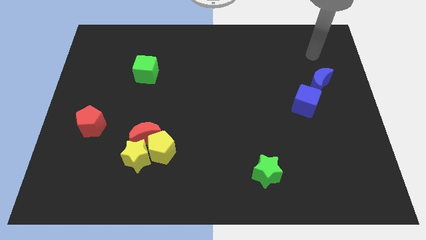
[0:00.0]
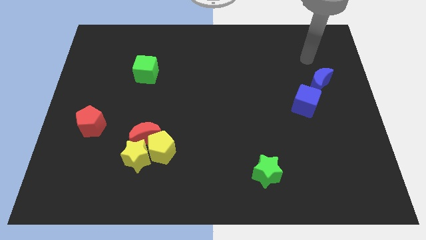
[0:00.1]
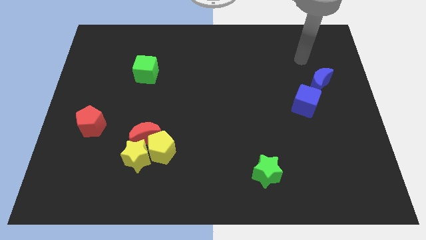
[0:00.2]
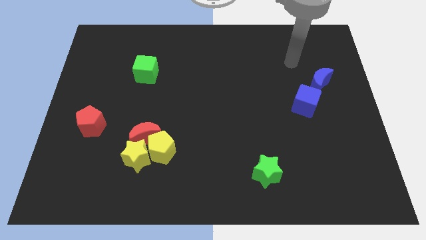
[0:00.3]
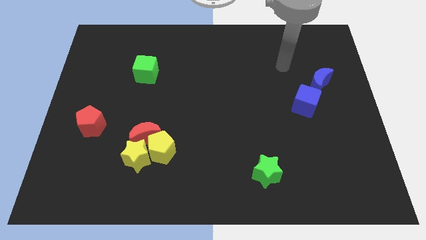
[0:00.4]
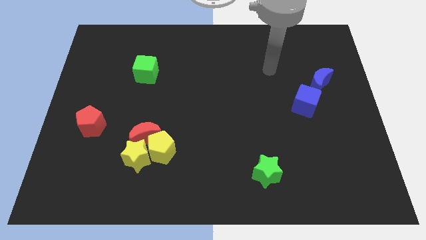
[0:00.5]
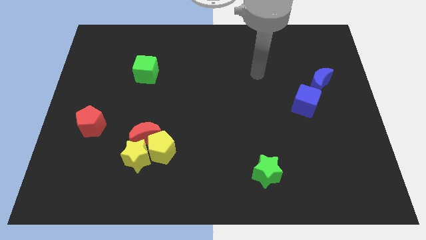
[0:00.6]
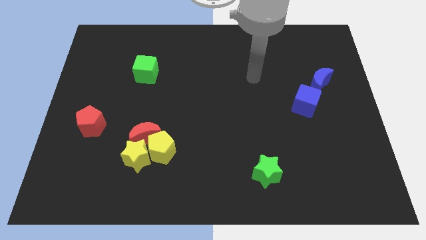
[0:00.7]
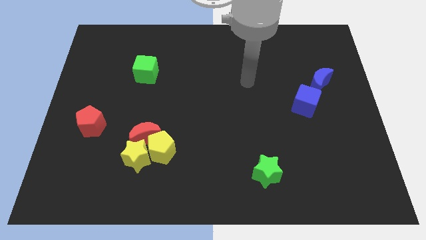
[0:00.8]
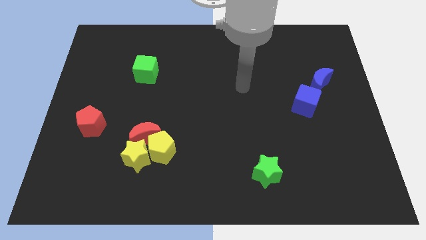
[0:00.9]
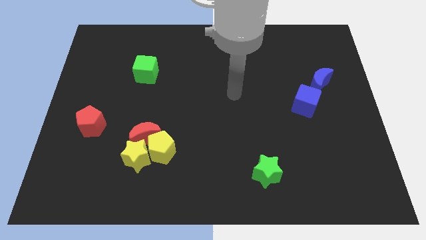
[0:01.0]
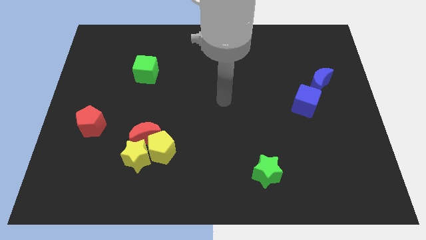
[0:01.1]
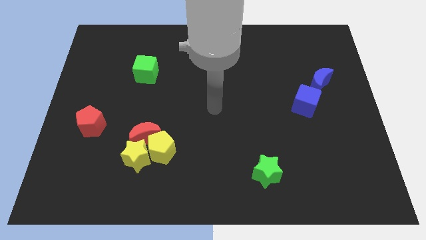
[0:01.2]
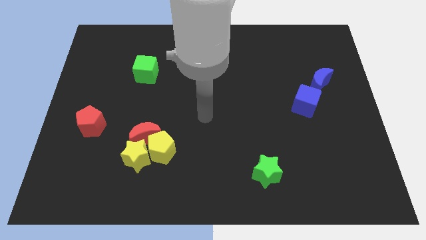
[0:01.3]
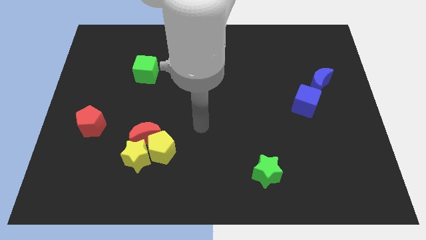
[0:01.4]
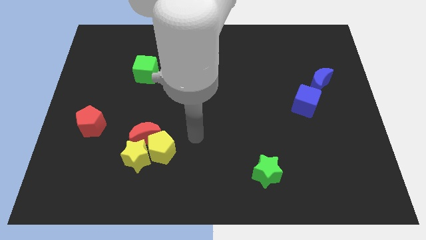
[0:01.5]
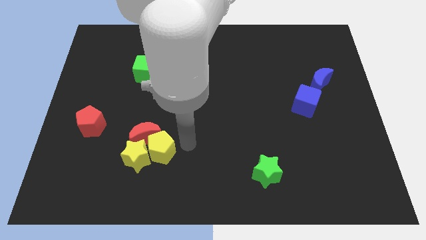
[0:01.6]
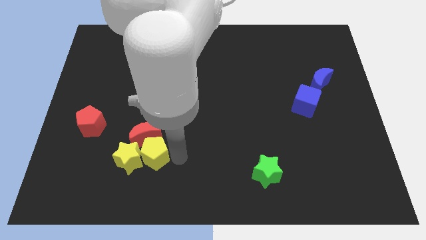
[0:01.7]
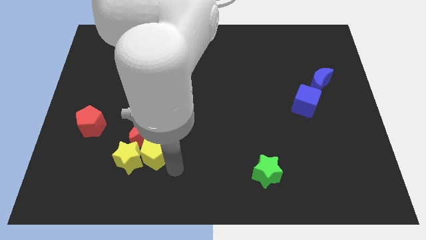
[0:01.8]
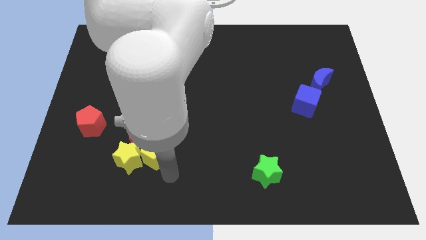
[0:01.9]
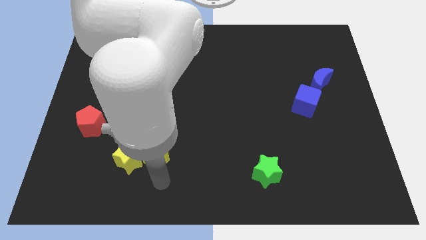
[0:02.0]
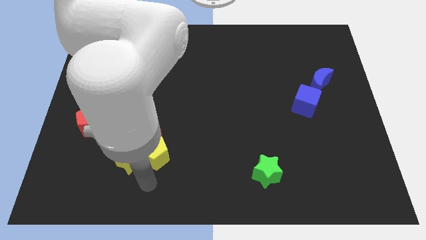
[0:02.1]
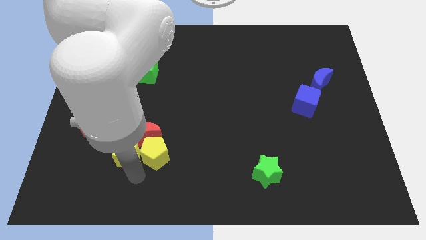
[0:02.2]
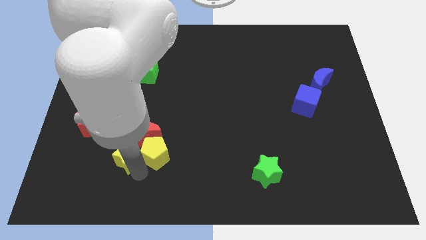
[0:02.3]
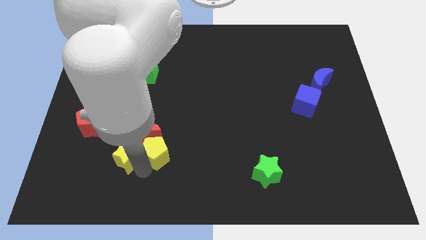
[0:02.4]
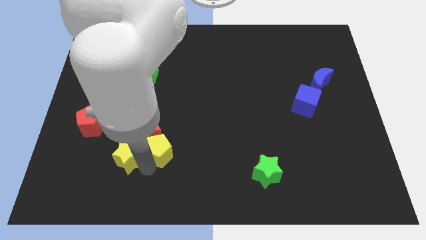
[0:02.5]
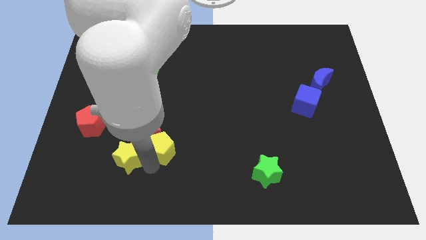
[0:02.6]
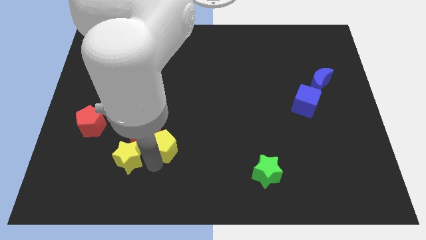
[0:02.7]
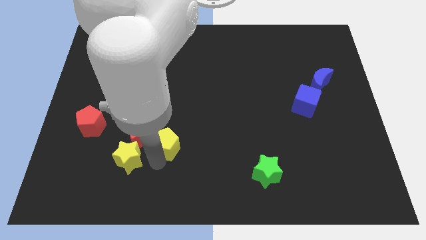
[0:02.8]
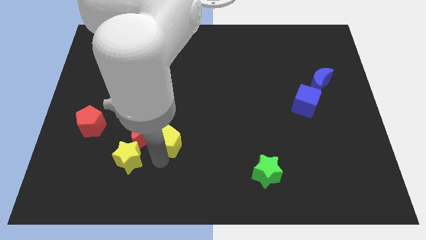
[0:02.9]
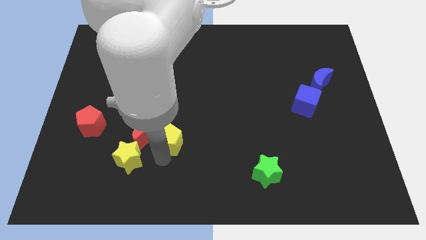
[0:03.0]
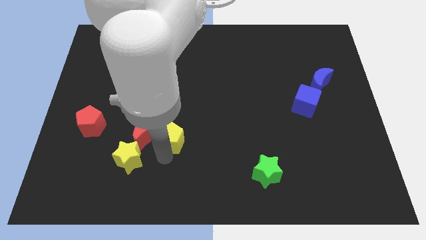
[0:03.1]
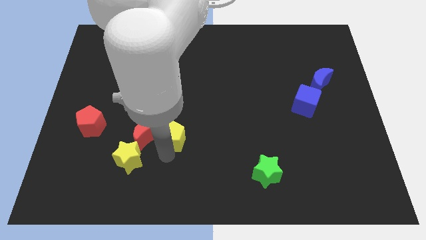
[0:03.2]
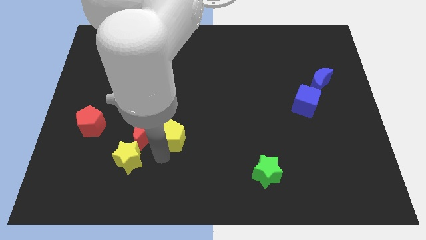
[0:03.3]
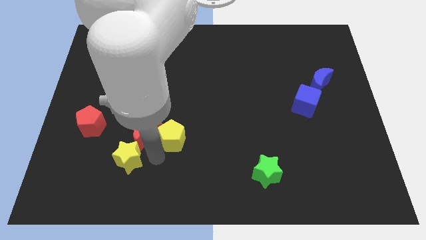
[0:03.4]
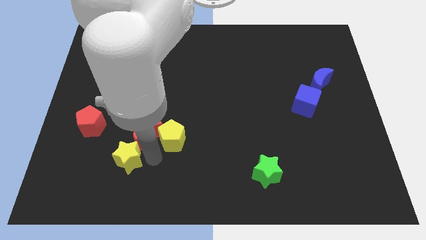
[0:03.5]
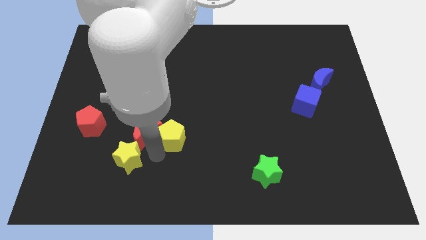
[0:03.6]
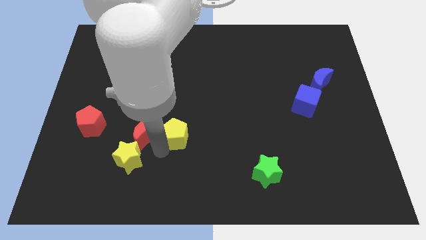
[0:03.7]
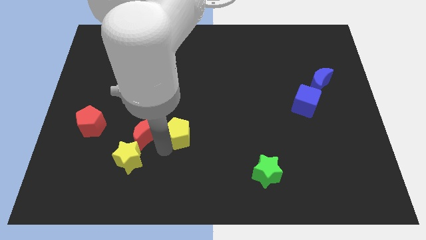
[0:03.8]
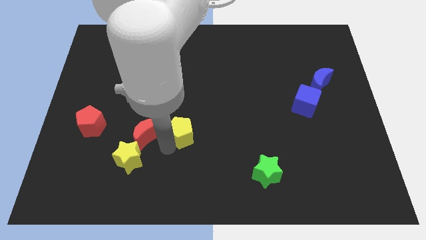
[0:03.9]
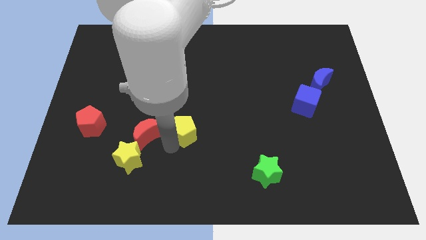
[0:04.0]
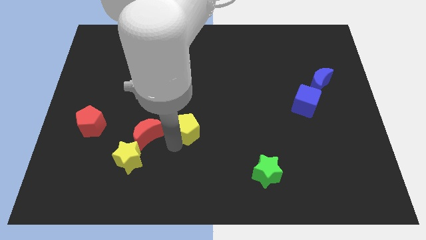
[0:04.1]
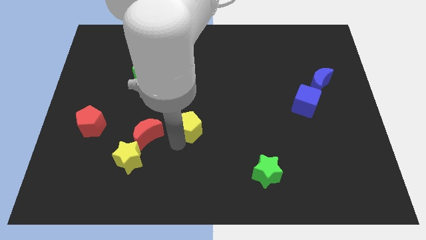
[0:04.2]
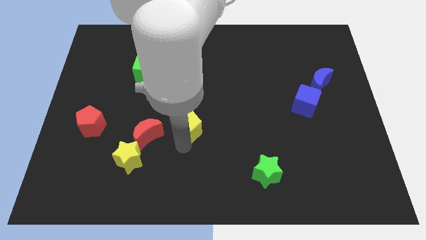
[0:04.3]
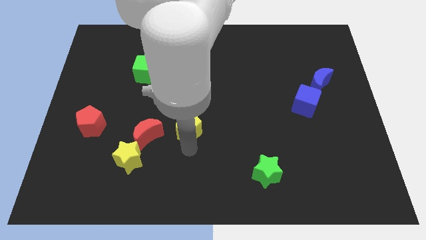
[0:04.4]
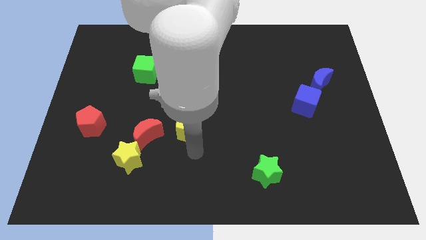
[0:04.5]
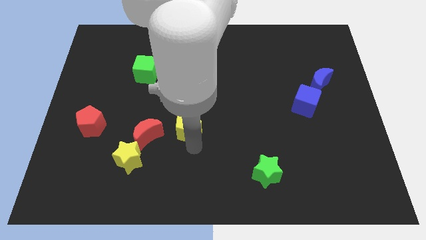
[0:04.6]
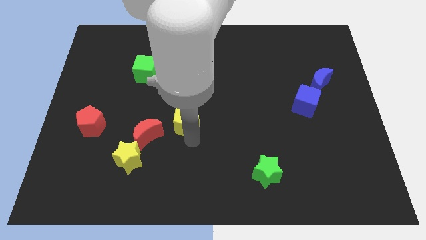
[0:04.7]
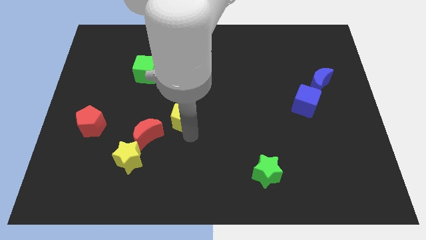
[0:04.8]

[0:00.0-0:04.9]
move the yellow pentagon a little bit upwards

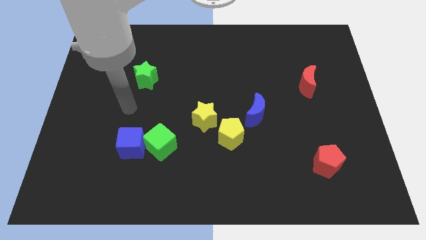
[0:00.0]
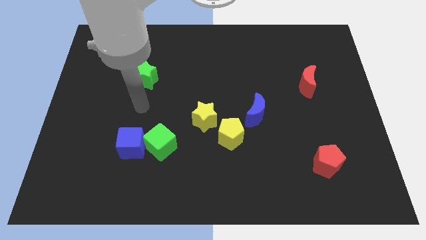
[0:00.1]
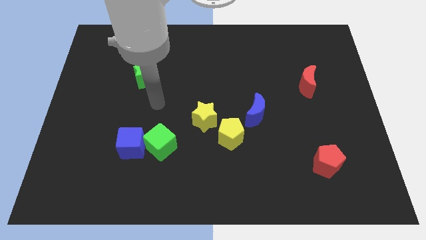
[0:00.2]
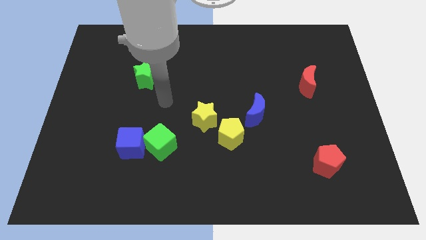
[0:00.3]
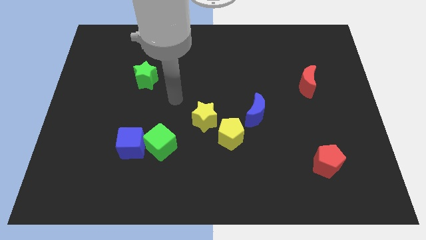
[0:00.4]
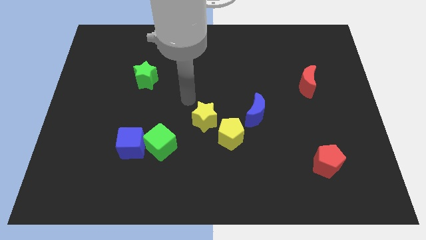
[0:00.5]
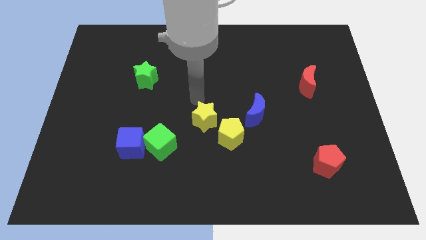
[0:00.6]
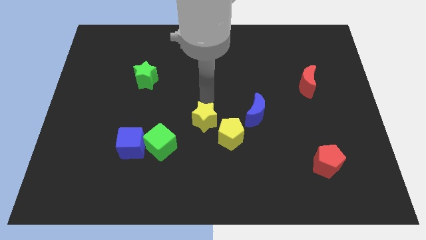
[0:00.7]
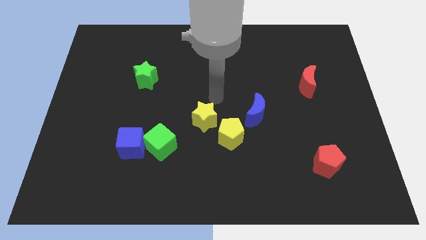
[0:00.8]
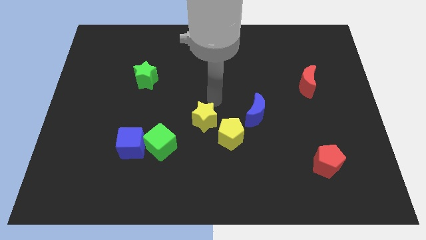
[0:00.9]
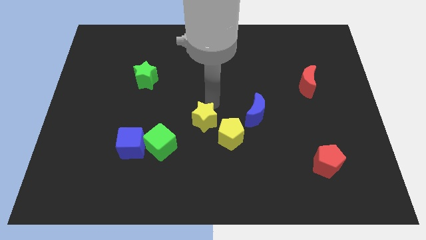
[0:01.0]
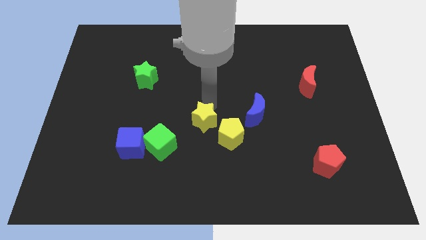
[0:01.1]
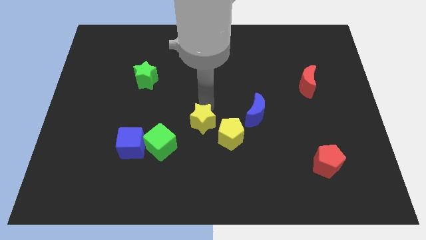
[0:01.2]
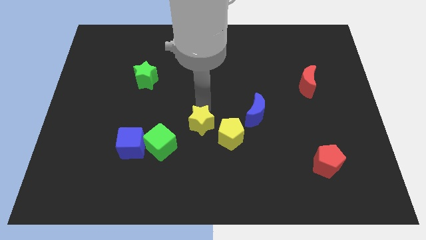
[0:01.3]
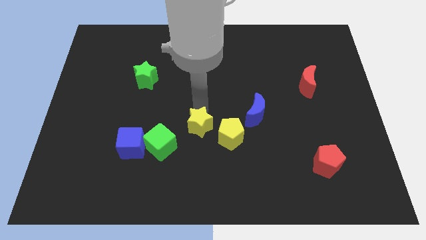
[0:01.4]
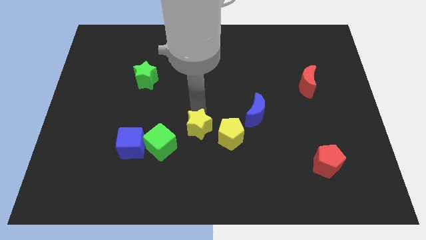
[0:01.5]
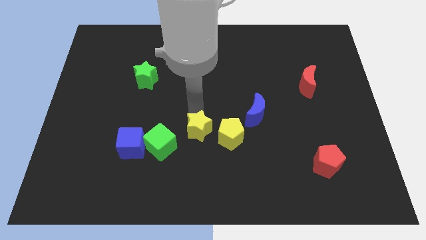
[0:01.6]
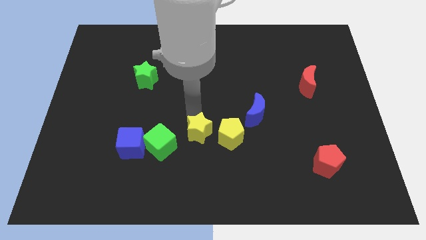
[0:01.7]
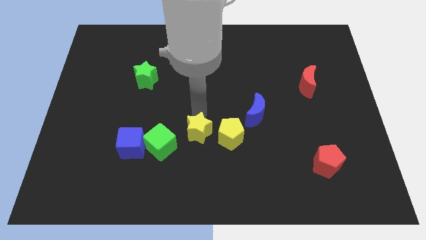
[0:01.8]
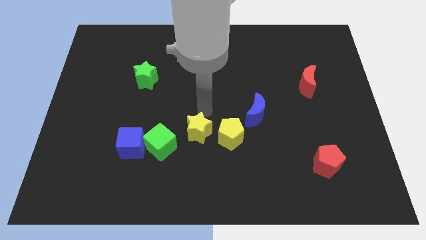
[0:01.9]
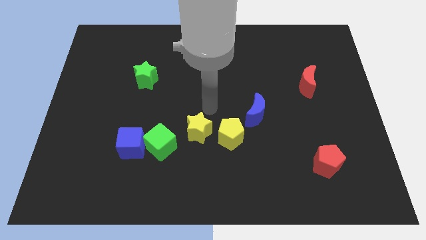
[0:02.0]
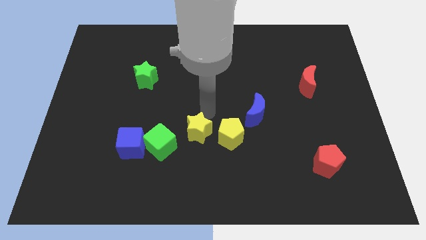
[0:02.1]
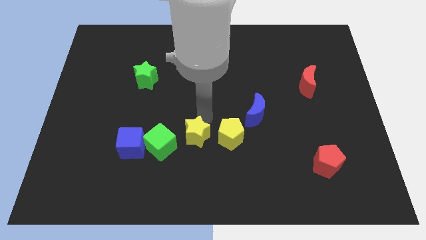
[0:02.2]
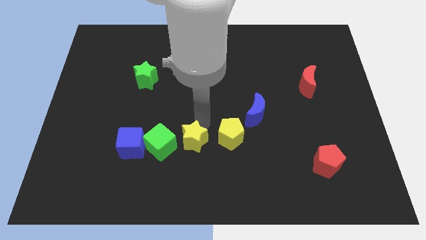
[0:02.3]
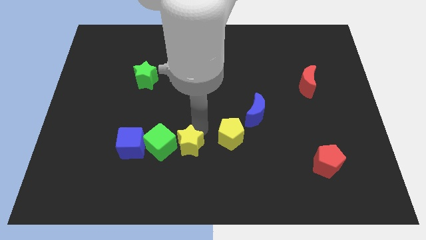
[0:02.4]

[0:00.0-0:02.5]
slide the yellow star a little down and then left

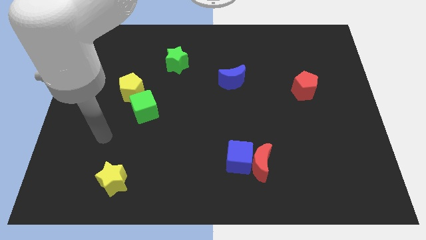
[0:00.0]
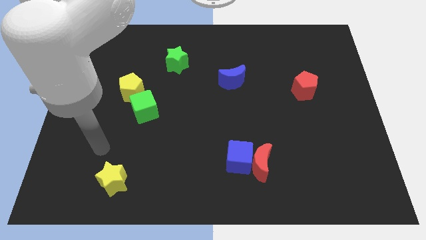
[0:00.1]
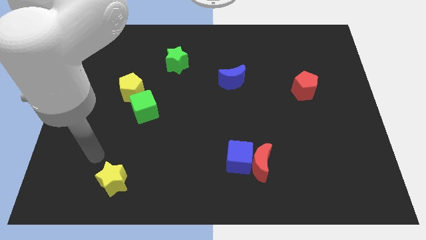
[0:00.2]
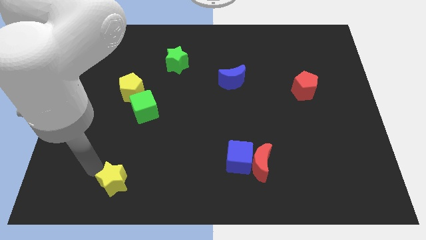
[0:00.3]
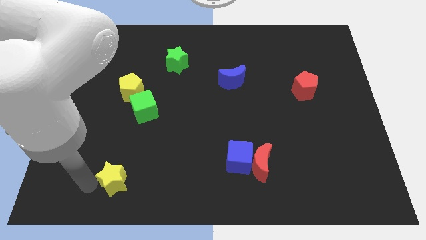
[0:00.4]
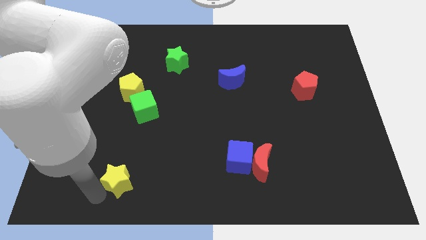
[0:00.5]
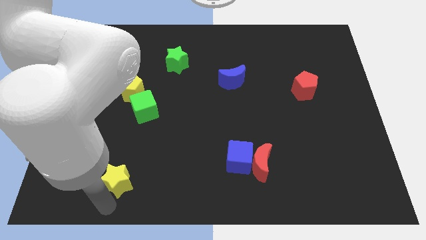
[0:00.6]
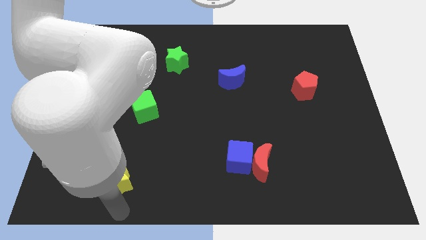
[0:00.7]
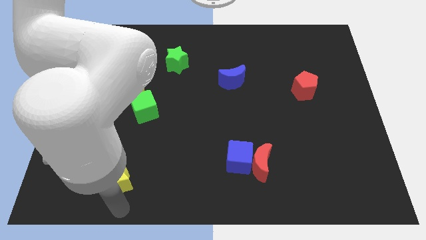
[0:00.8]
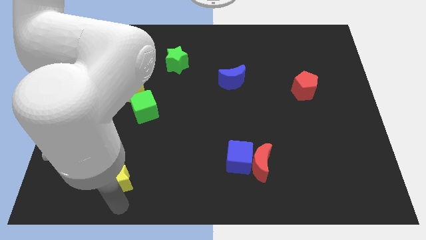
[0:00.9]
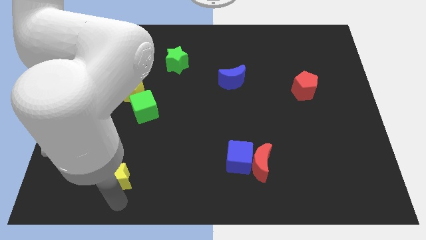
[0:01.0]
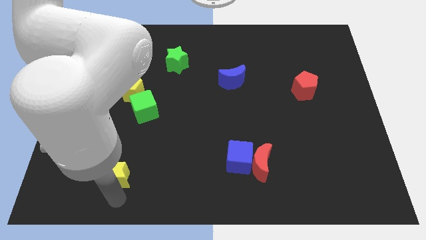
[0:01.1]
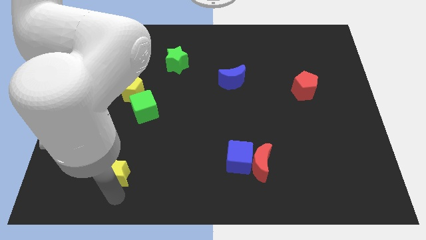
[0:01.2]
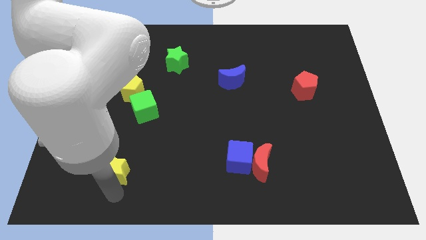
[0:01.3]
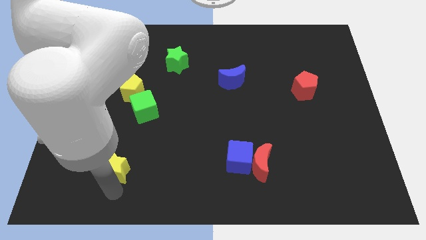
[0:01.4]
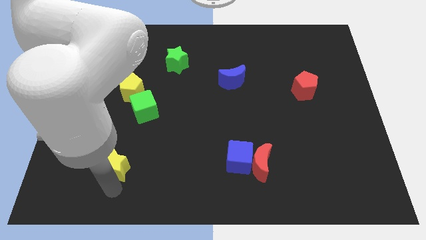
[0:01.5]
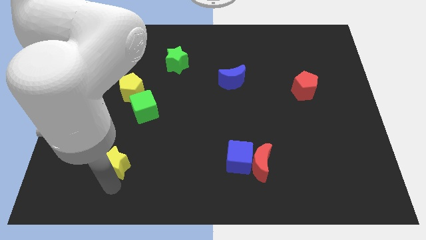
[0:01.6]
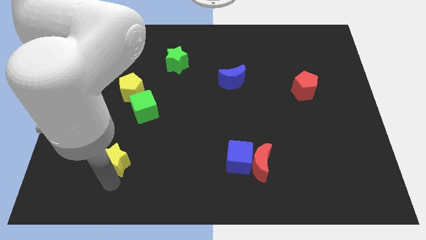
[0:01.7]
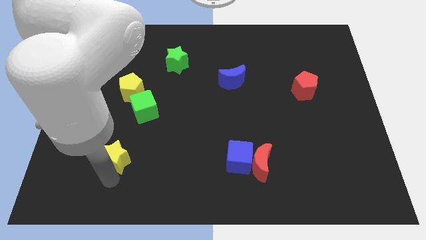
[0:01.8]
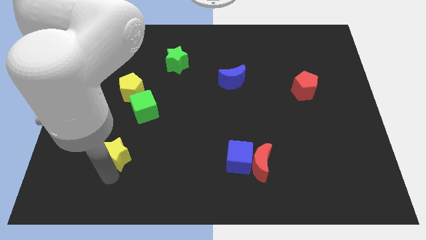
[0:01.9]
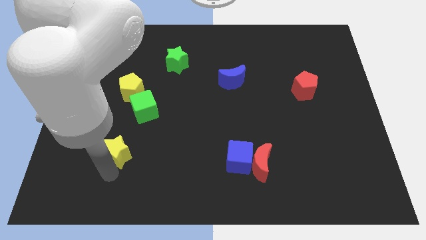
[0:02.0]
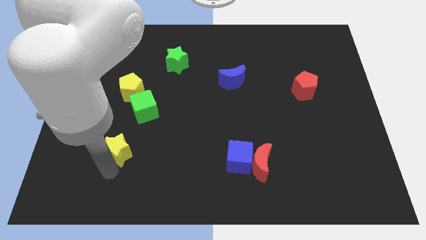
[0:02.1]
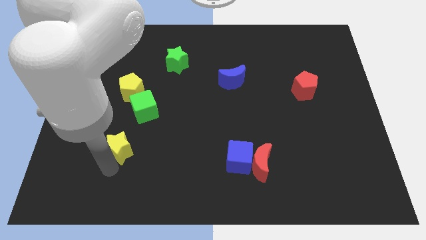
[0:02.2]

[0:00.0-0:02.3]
slightly push the yellow star up
